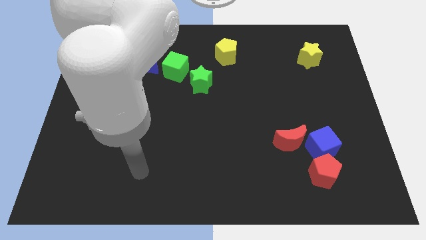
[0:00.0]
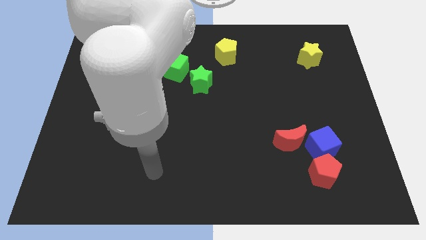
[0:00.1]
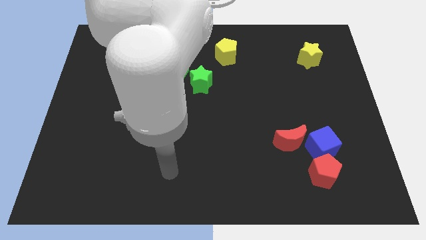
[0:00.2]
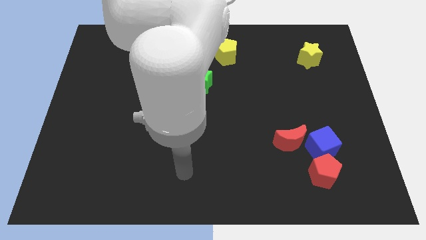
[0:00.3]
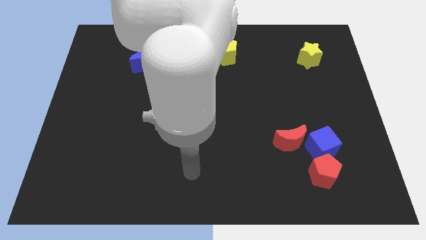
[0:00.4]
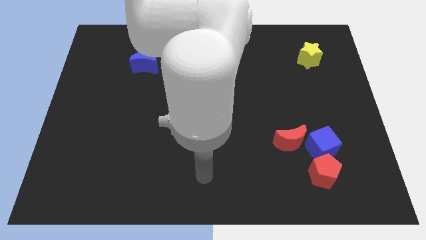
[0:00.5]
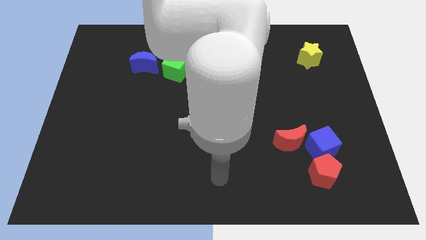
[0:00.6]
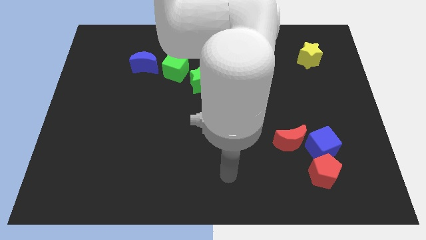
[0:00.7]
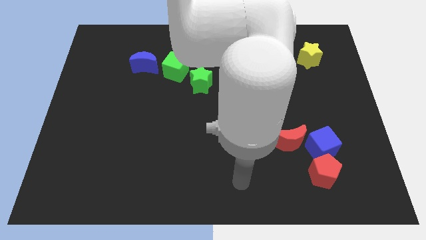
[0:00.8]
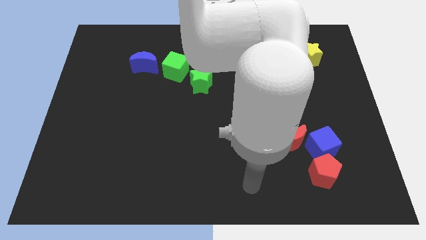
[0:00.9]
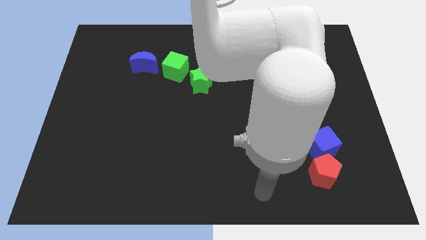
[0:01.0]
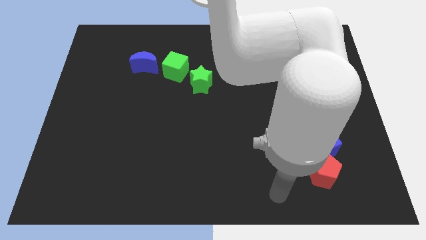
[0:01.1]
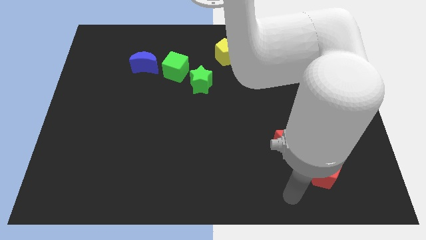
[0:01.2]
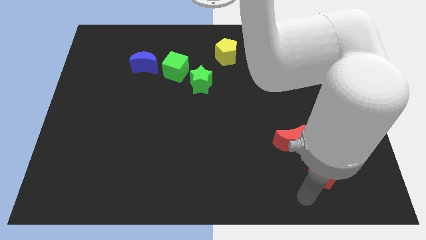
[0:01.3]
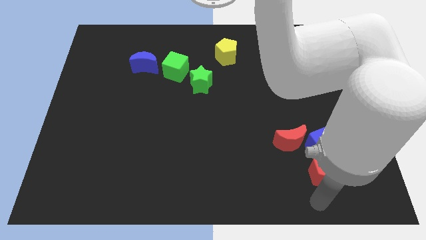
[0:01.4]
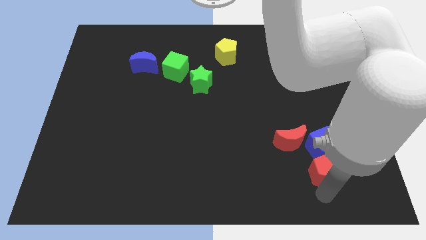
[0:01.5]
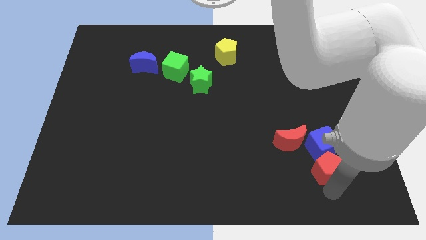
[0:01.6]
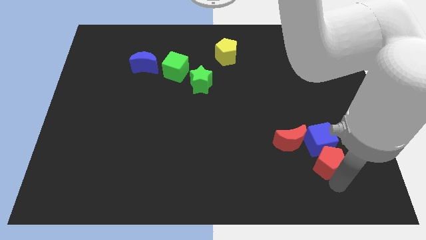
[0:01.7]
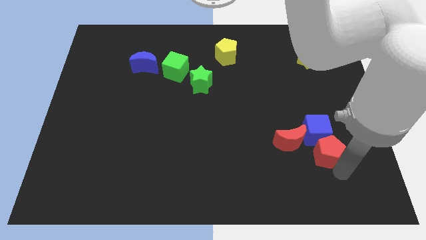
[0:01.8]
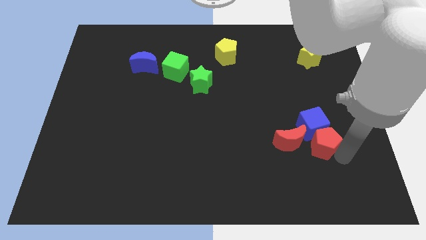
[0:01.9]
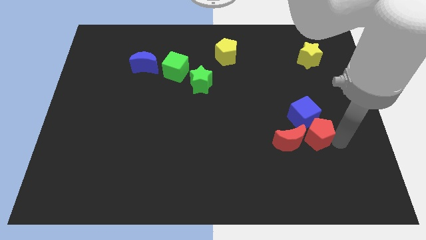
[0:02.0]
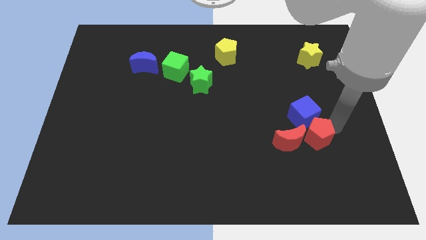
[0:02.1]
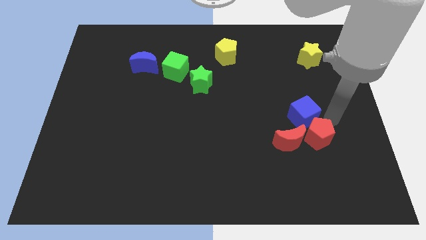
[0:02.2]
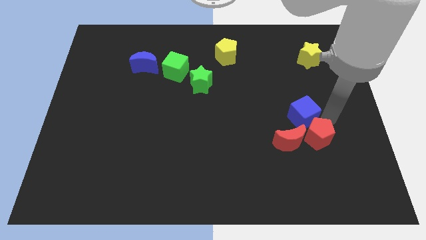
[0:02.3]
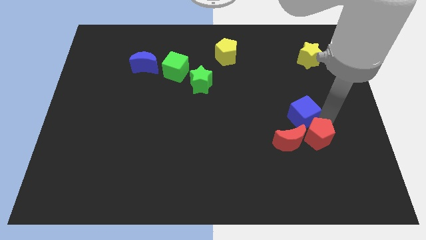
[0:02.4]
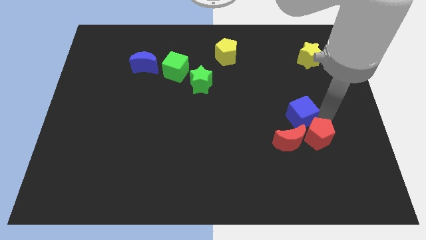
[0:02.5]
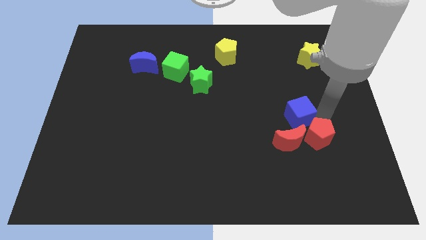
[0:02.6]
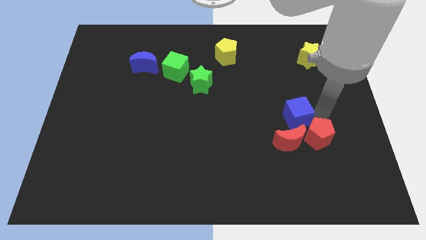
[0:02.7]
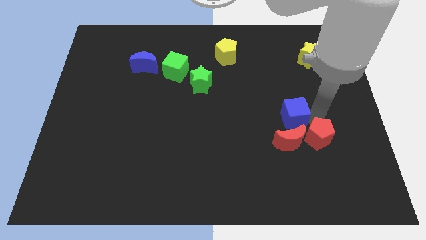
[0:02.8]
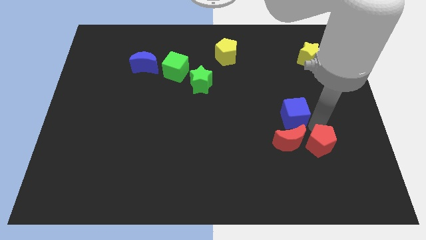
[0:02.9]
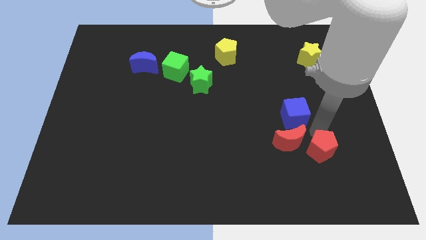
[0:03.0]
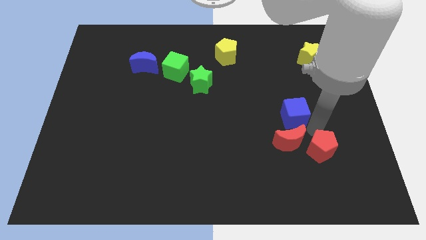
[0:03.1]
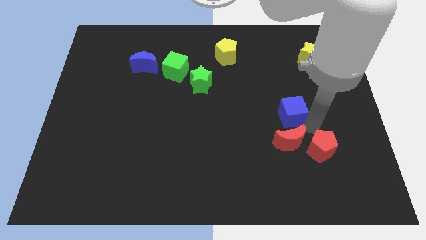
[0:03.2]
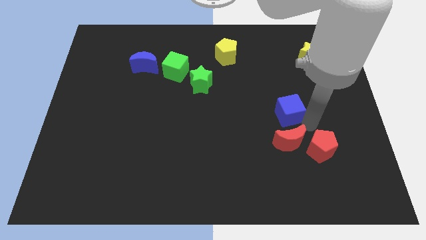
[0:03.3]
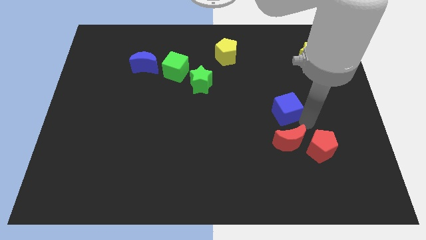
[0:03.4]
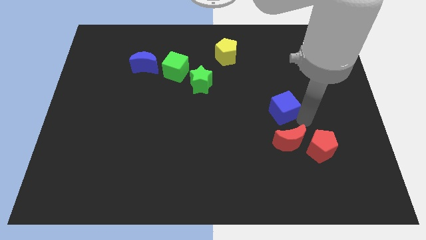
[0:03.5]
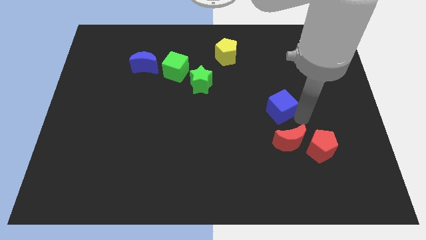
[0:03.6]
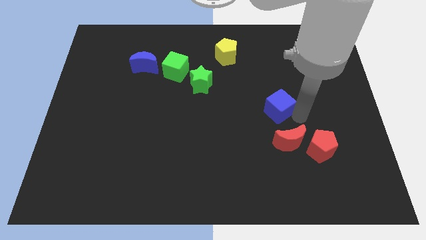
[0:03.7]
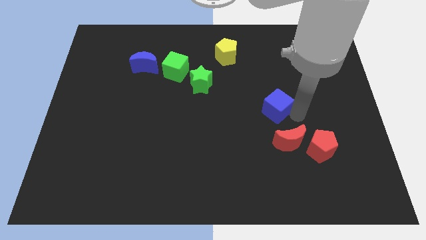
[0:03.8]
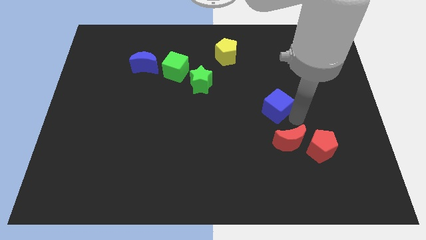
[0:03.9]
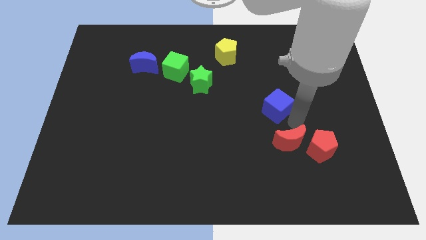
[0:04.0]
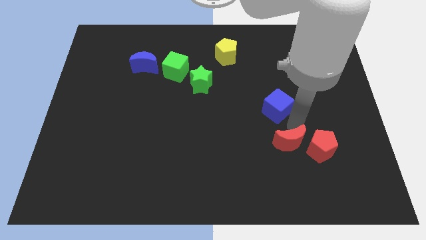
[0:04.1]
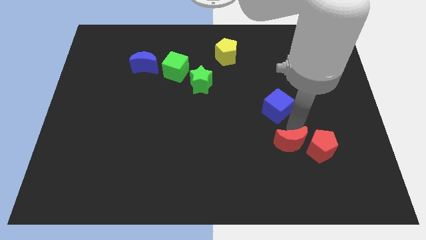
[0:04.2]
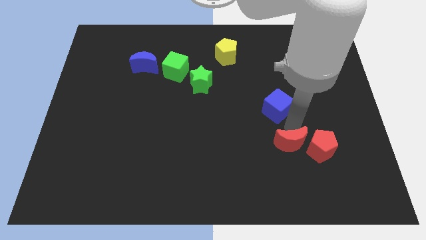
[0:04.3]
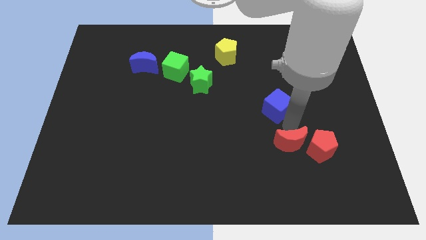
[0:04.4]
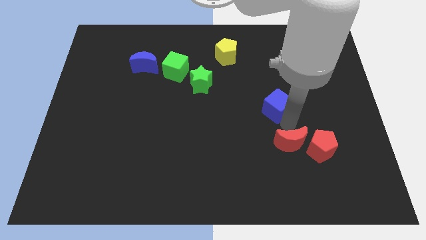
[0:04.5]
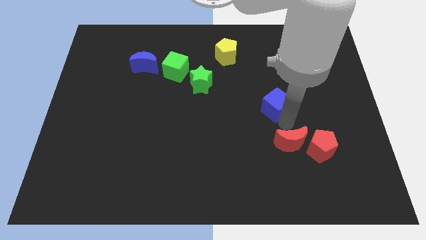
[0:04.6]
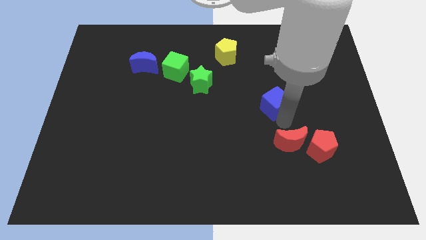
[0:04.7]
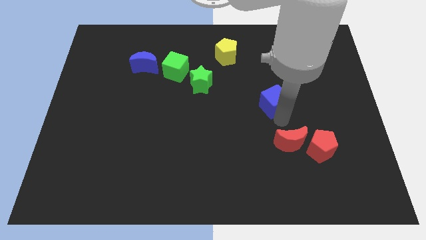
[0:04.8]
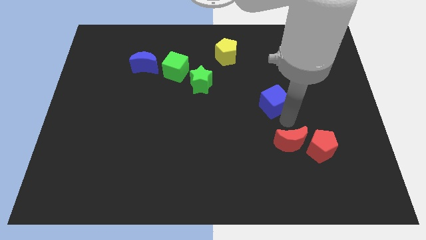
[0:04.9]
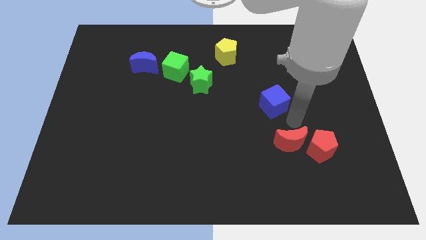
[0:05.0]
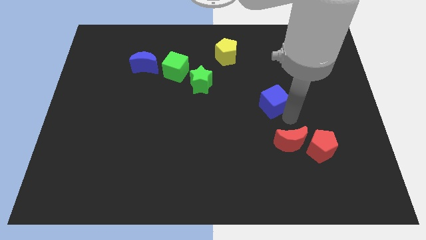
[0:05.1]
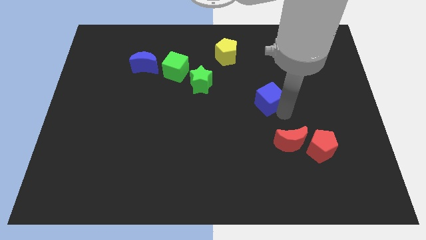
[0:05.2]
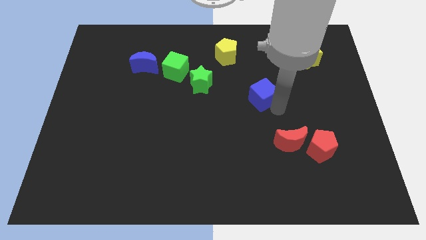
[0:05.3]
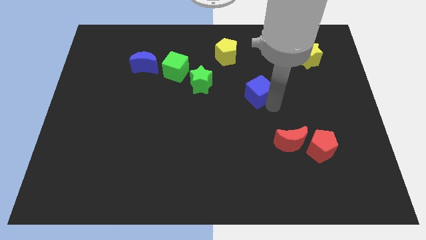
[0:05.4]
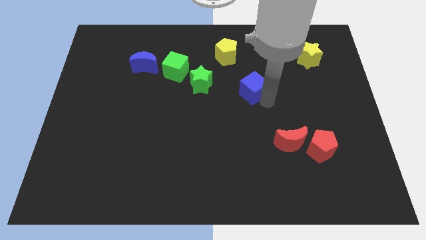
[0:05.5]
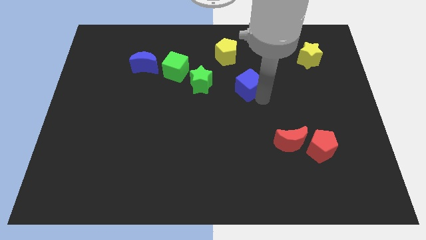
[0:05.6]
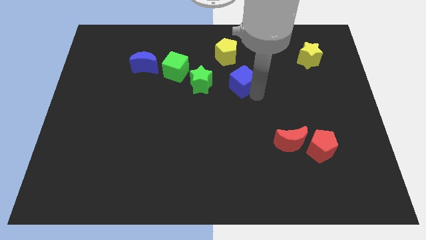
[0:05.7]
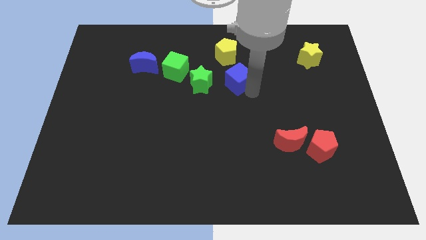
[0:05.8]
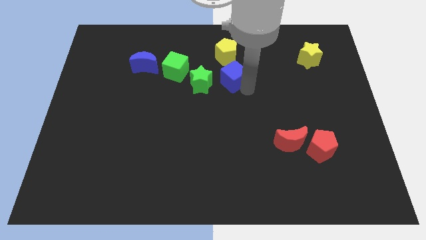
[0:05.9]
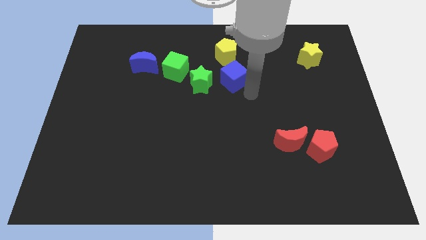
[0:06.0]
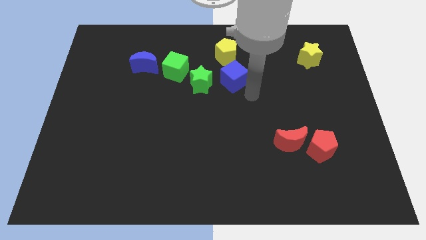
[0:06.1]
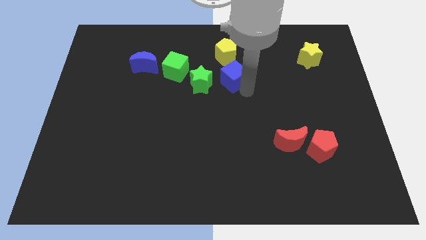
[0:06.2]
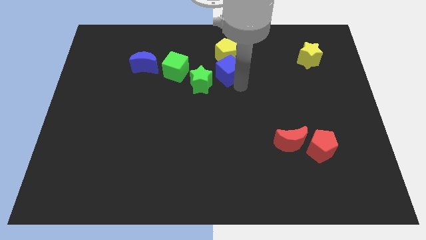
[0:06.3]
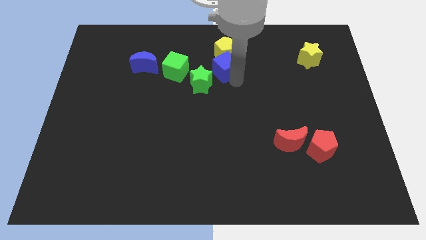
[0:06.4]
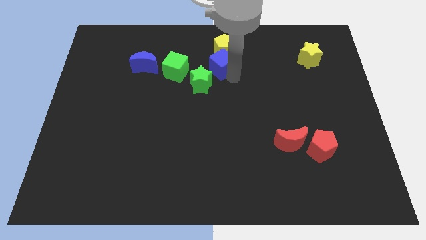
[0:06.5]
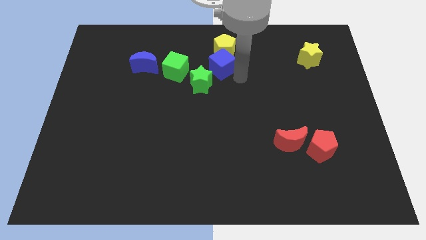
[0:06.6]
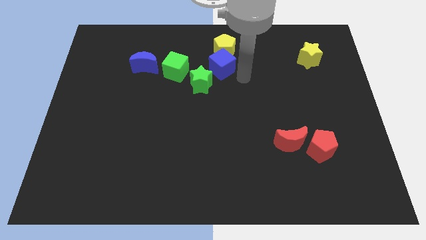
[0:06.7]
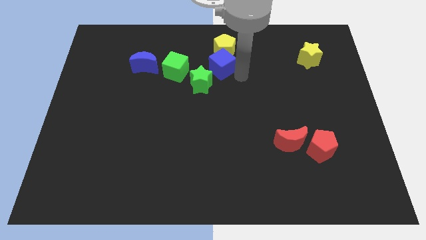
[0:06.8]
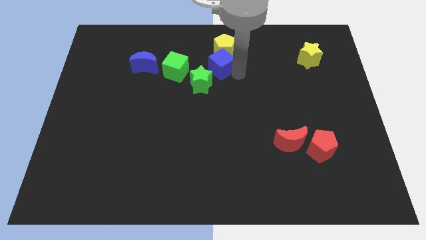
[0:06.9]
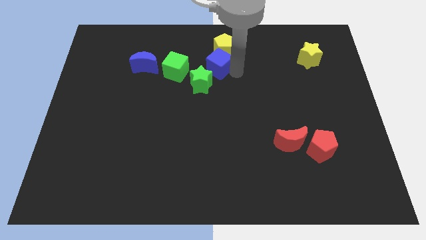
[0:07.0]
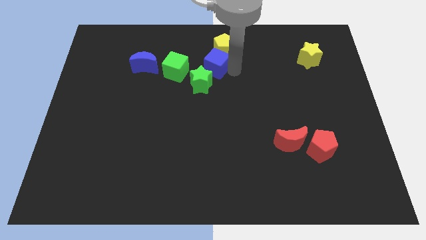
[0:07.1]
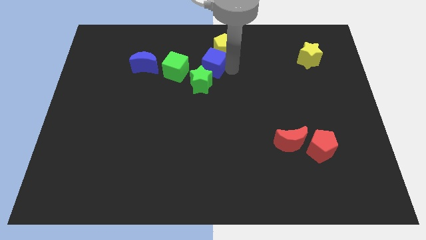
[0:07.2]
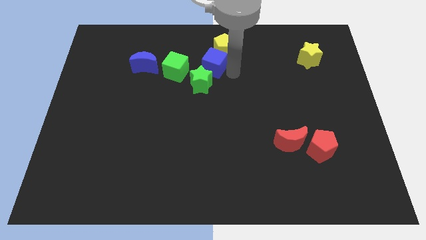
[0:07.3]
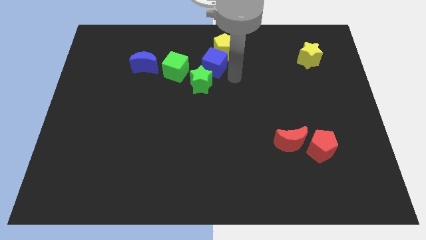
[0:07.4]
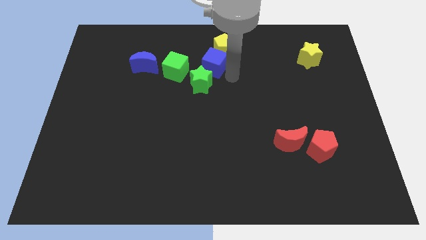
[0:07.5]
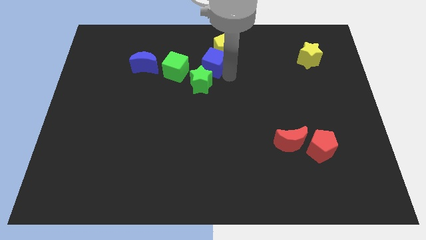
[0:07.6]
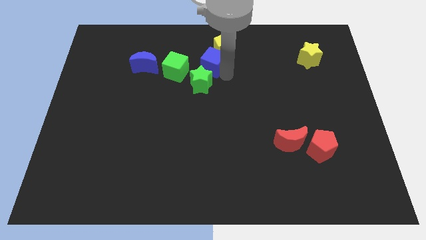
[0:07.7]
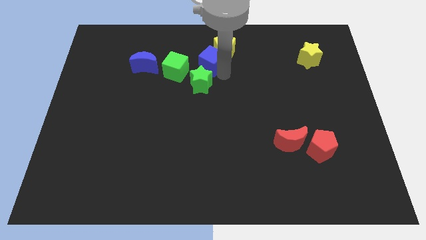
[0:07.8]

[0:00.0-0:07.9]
push the blue cube to the top right of the green cube
